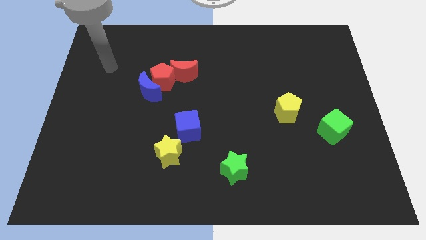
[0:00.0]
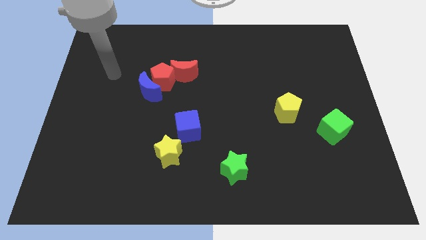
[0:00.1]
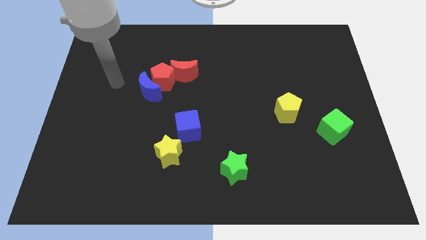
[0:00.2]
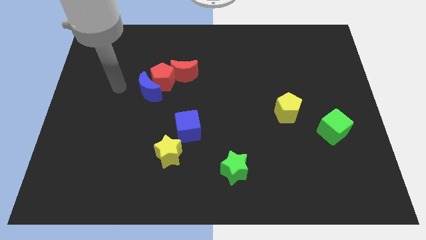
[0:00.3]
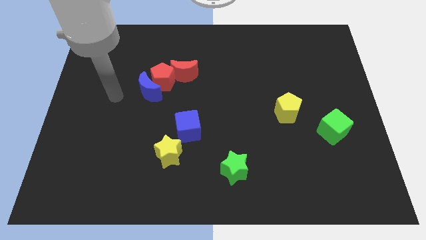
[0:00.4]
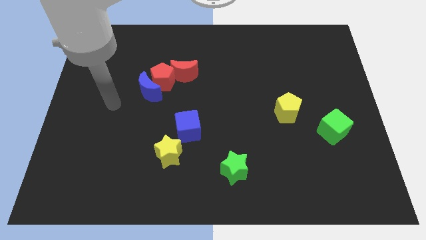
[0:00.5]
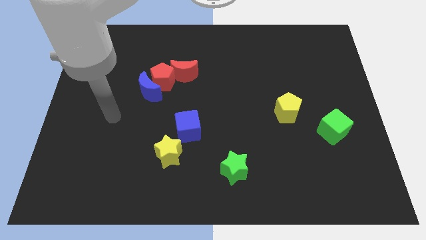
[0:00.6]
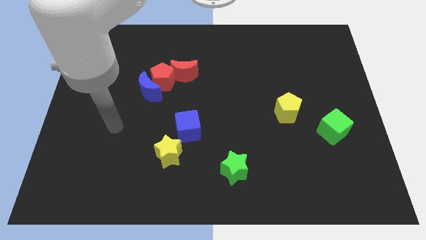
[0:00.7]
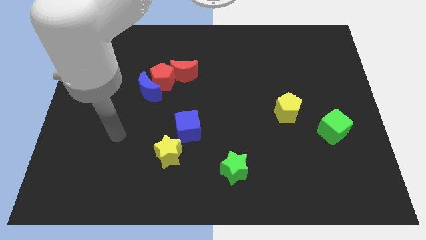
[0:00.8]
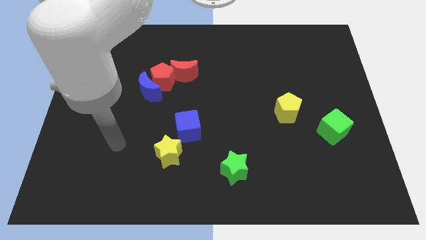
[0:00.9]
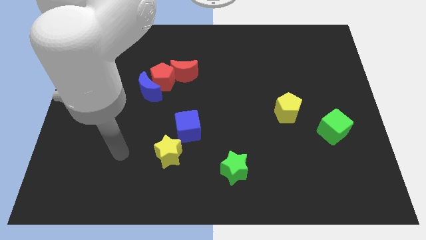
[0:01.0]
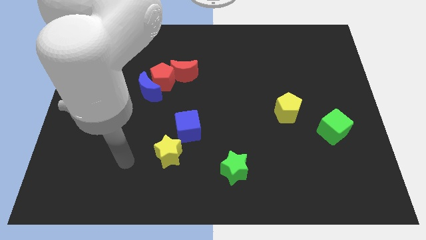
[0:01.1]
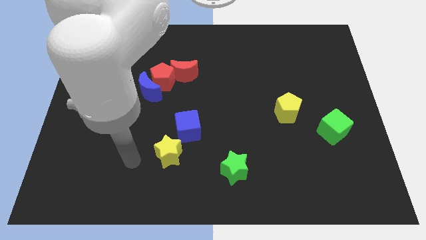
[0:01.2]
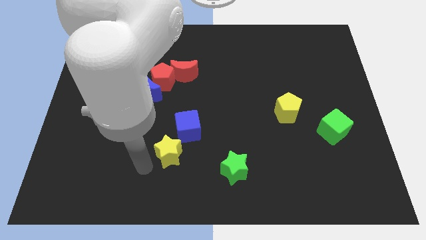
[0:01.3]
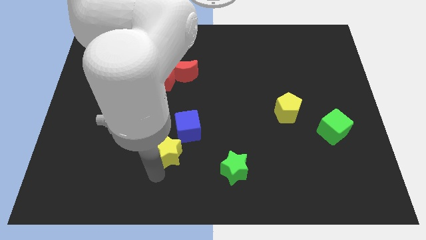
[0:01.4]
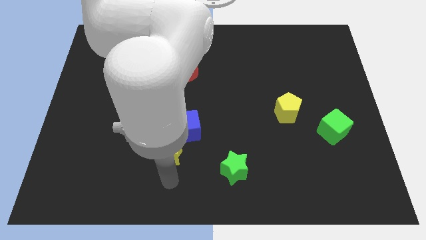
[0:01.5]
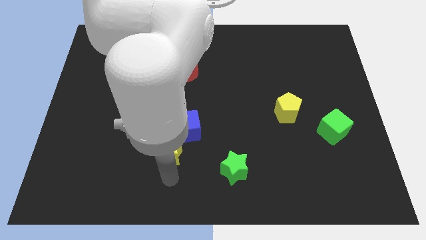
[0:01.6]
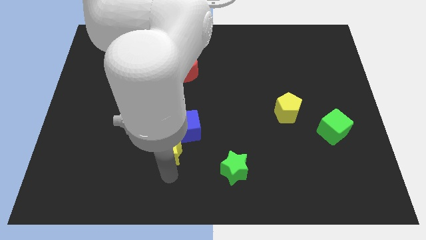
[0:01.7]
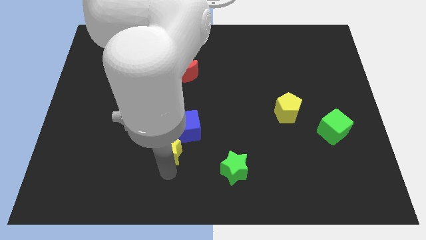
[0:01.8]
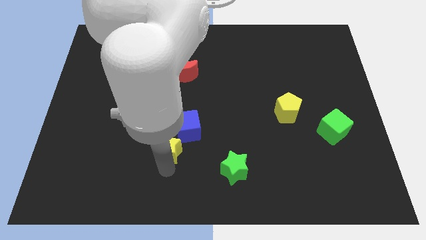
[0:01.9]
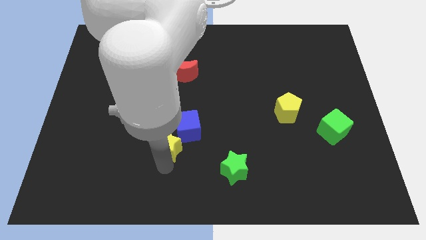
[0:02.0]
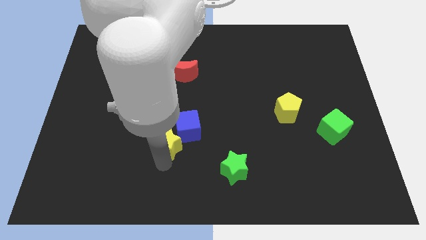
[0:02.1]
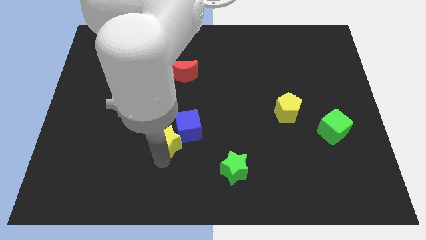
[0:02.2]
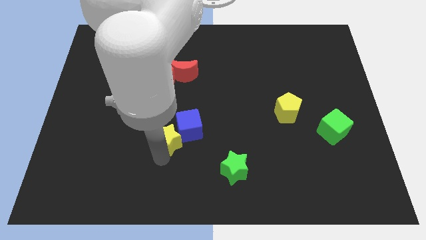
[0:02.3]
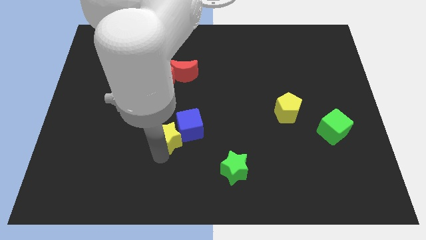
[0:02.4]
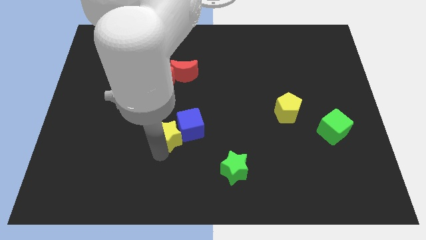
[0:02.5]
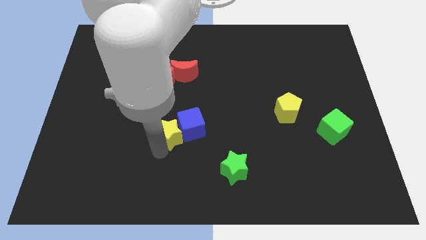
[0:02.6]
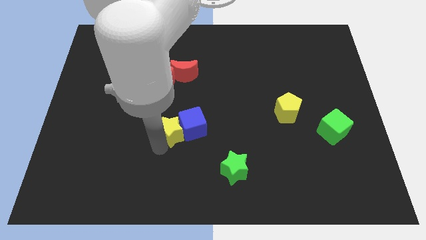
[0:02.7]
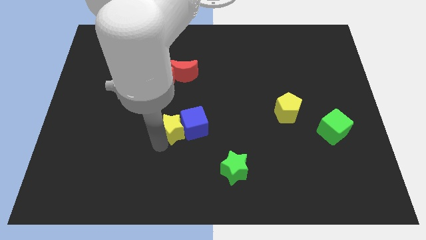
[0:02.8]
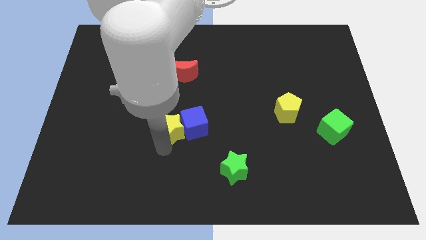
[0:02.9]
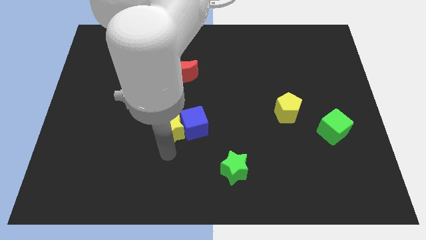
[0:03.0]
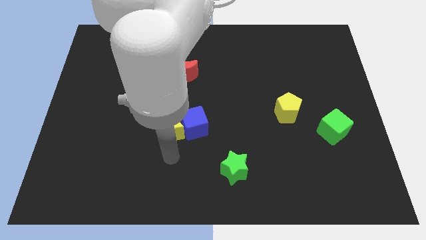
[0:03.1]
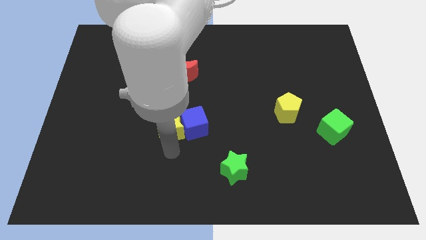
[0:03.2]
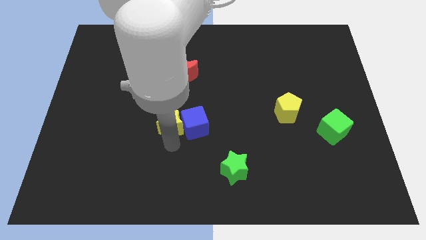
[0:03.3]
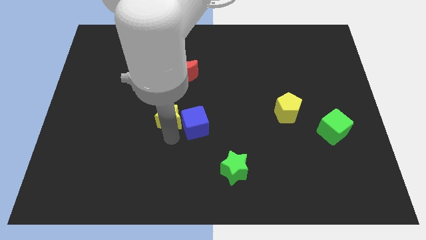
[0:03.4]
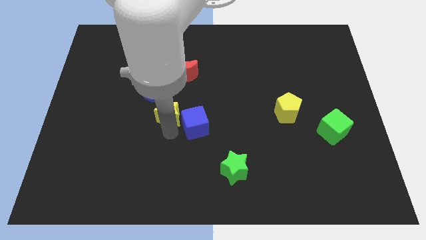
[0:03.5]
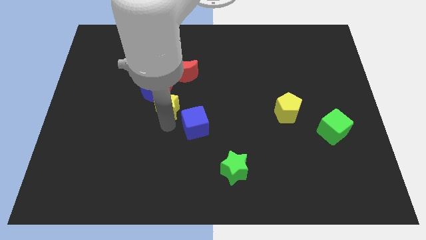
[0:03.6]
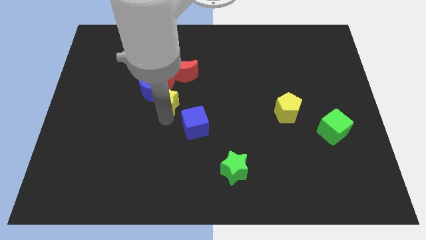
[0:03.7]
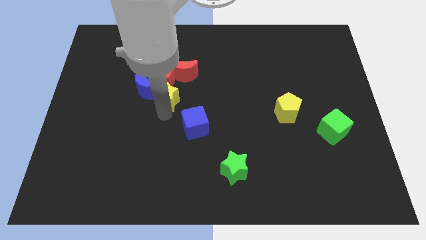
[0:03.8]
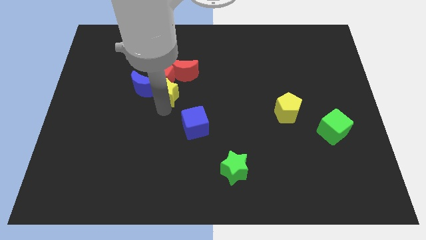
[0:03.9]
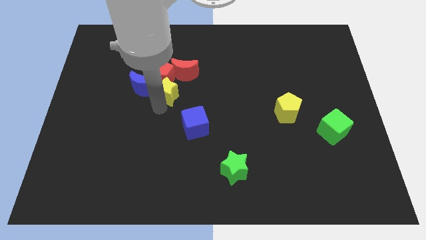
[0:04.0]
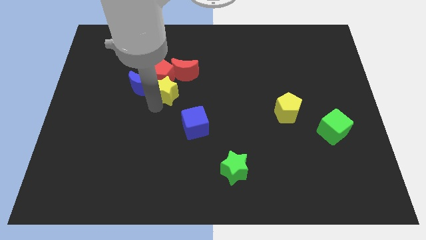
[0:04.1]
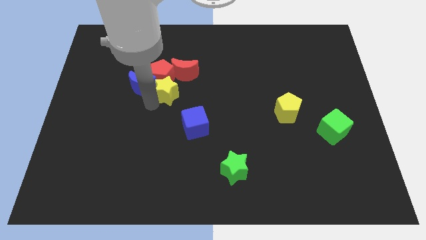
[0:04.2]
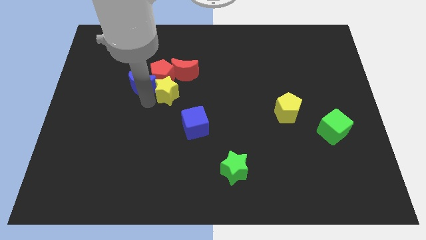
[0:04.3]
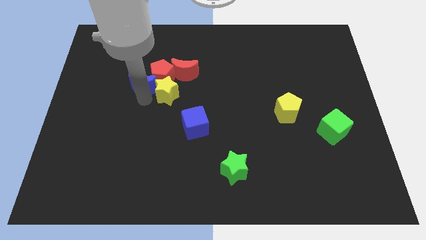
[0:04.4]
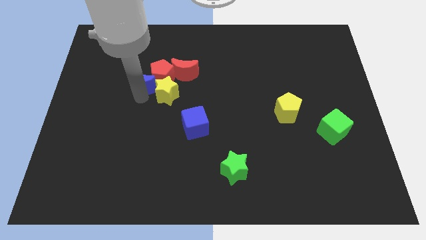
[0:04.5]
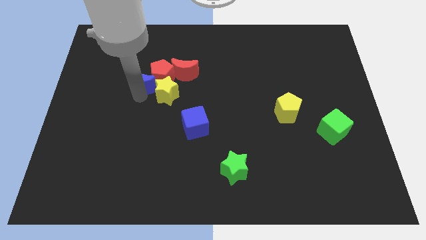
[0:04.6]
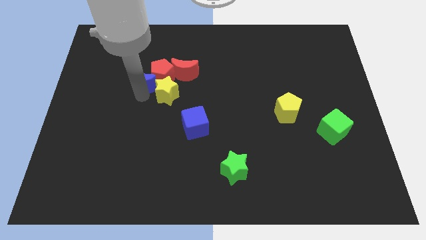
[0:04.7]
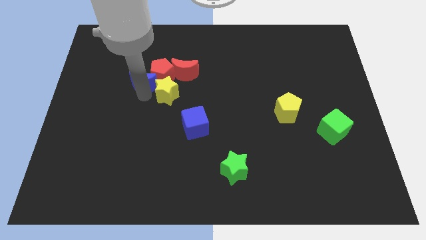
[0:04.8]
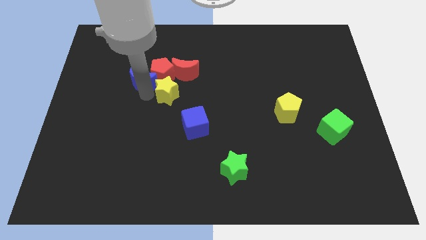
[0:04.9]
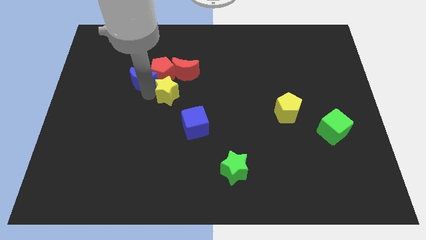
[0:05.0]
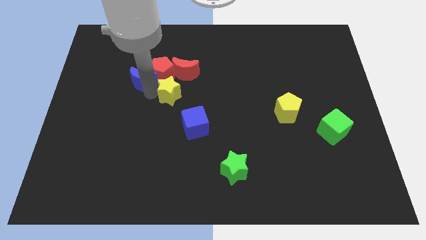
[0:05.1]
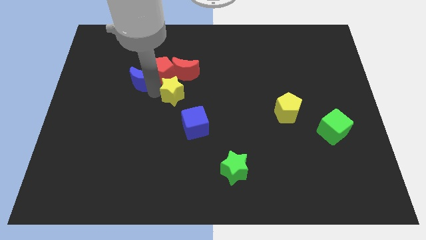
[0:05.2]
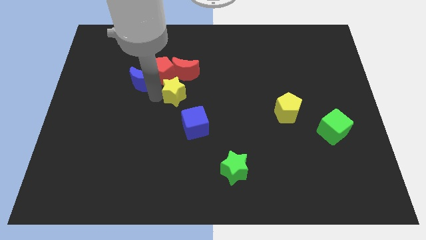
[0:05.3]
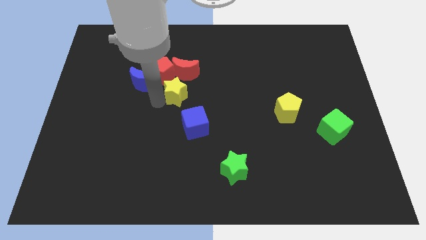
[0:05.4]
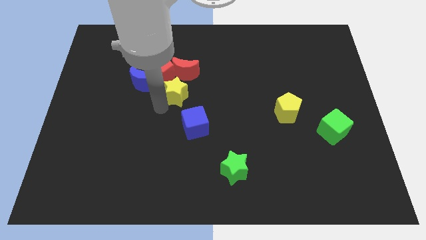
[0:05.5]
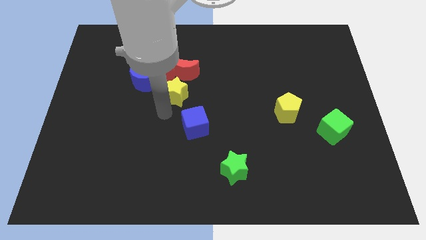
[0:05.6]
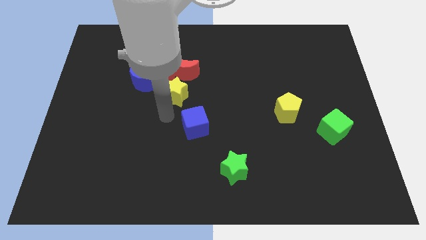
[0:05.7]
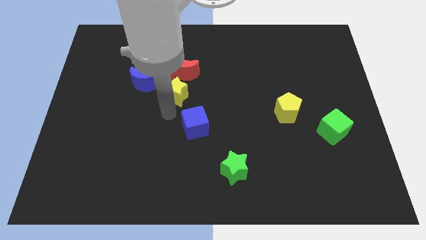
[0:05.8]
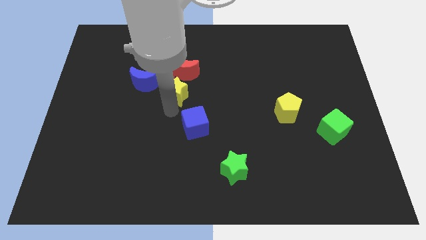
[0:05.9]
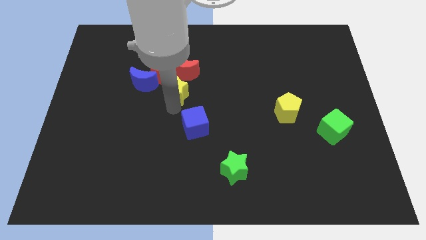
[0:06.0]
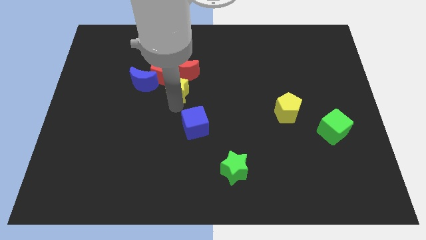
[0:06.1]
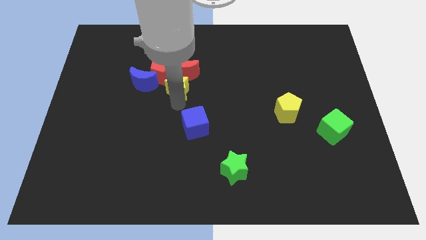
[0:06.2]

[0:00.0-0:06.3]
slide the yellow star close to the red moon
